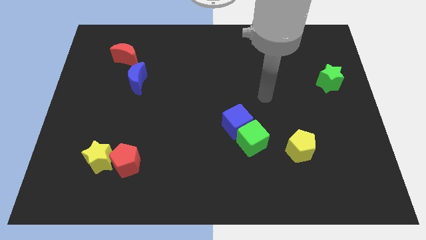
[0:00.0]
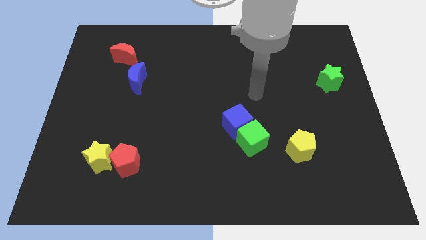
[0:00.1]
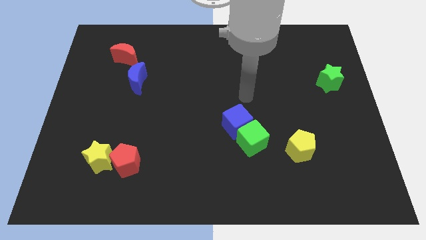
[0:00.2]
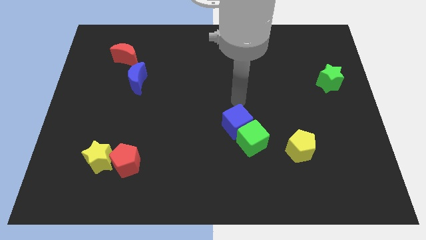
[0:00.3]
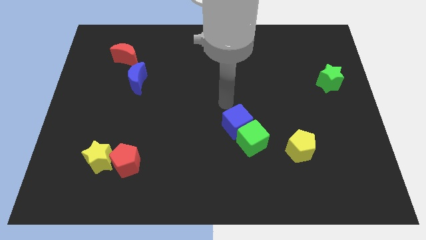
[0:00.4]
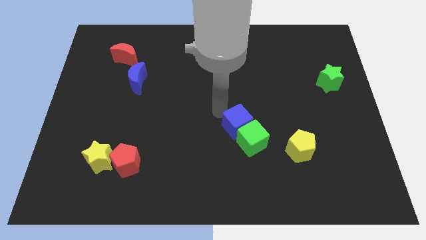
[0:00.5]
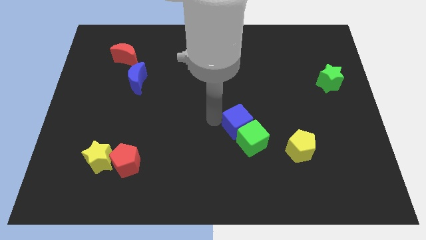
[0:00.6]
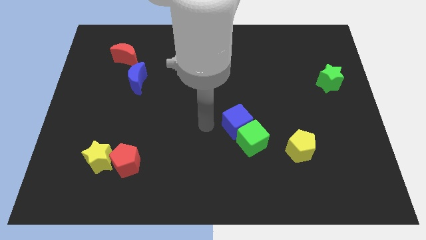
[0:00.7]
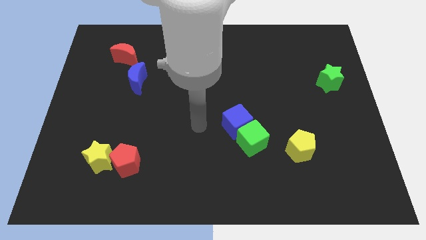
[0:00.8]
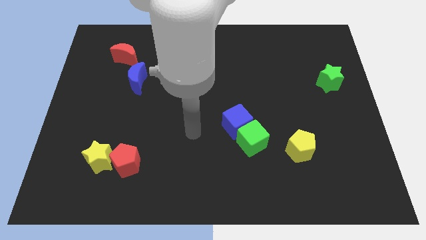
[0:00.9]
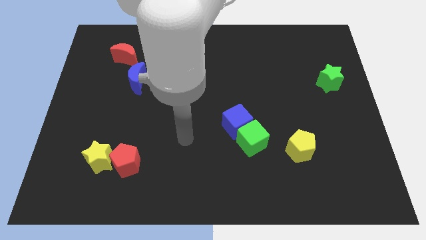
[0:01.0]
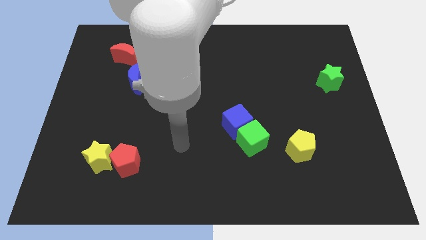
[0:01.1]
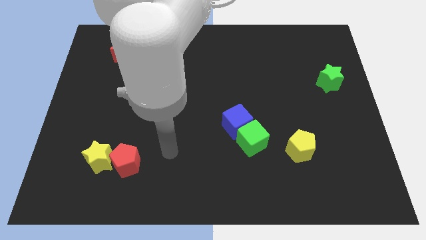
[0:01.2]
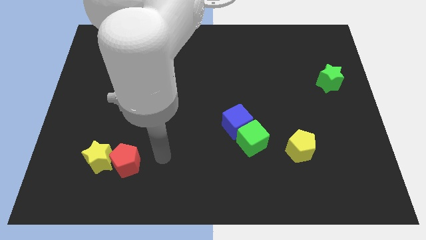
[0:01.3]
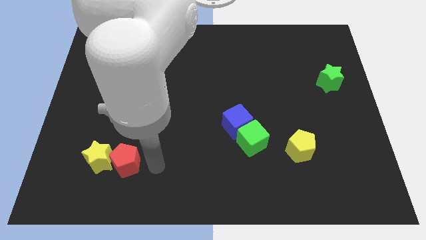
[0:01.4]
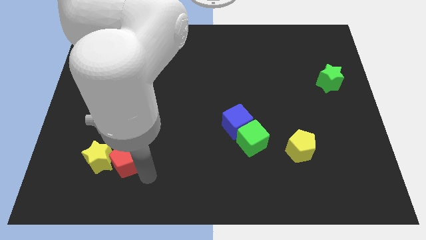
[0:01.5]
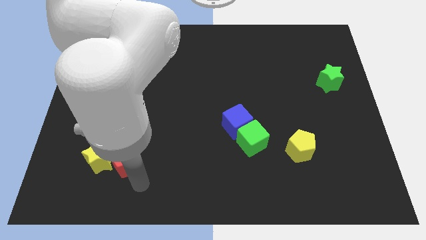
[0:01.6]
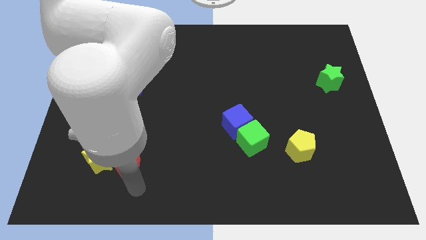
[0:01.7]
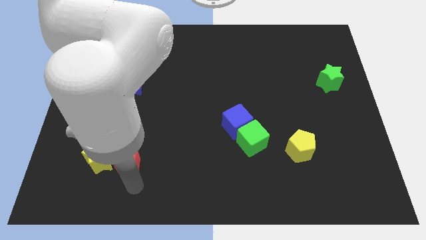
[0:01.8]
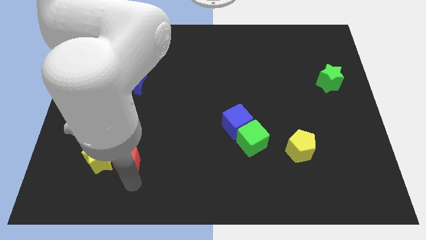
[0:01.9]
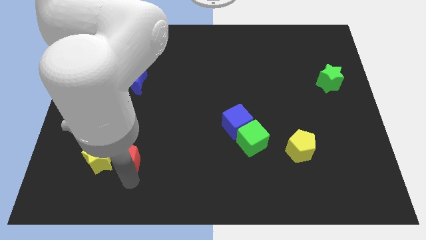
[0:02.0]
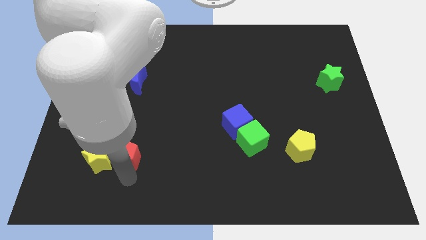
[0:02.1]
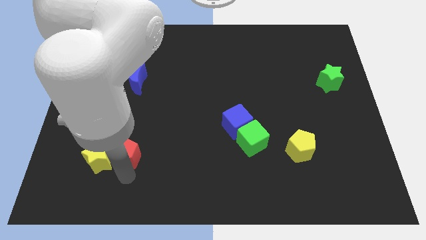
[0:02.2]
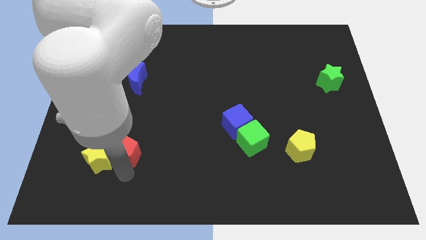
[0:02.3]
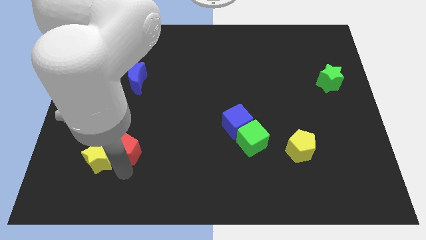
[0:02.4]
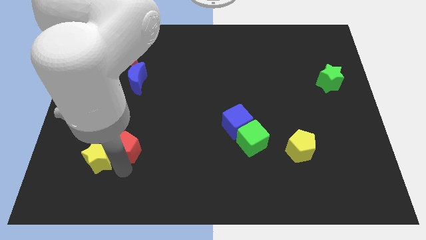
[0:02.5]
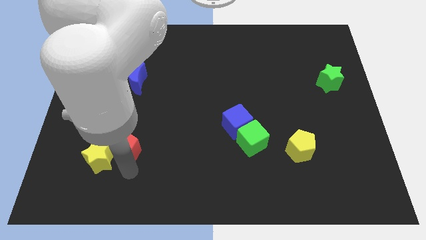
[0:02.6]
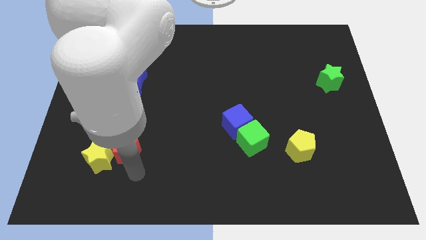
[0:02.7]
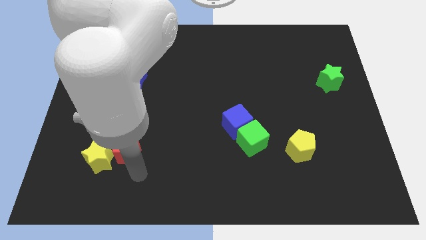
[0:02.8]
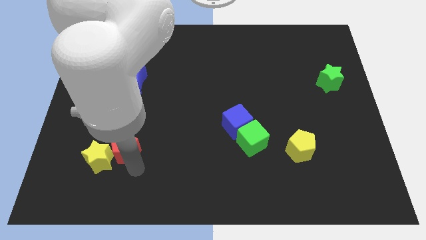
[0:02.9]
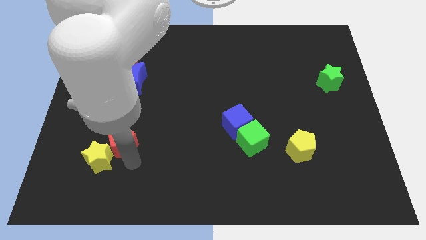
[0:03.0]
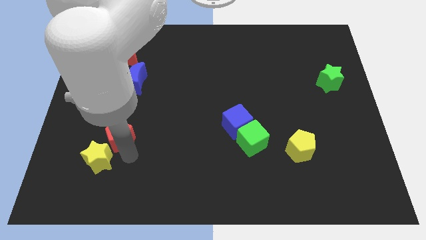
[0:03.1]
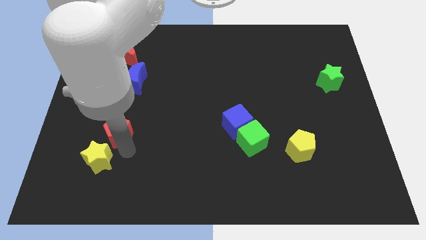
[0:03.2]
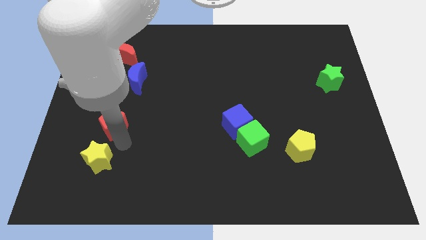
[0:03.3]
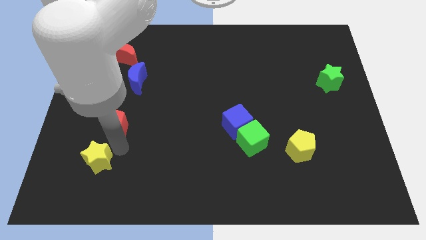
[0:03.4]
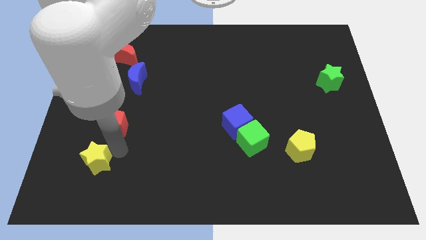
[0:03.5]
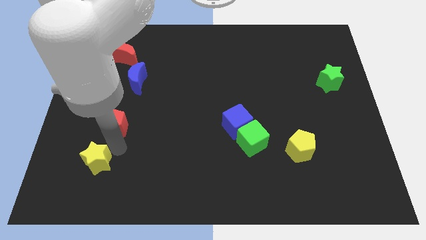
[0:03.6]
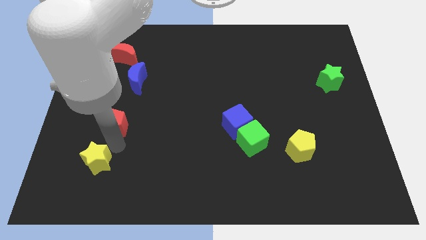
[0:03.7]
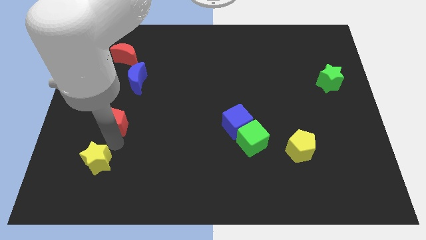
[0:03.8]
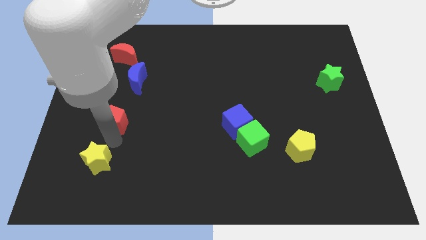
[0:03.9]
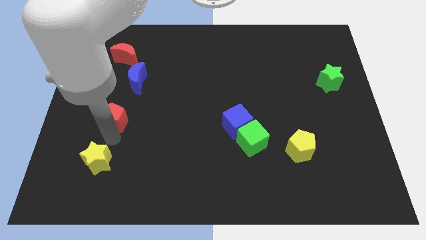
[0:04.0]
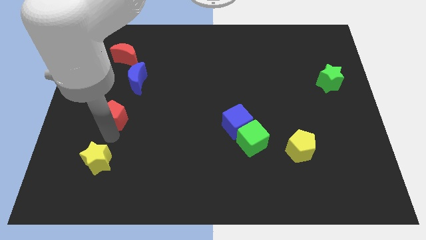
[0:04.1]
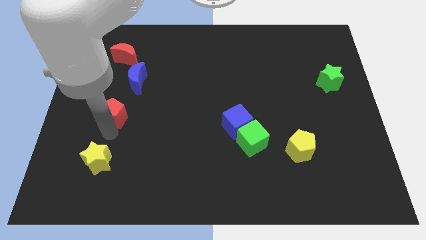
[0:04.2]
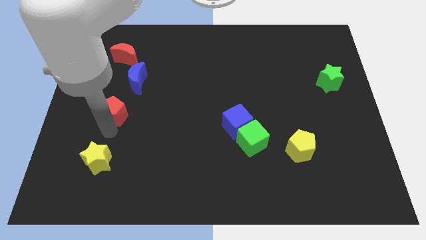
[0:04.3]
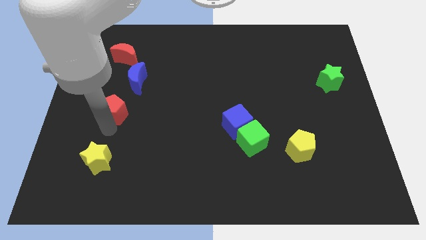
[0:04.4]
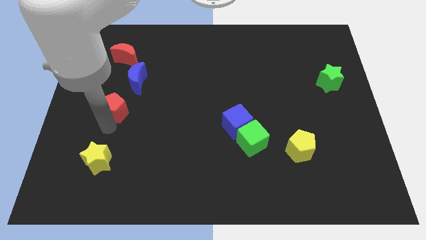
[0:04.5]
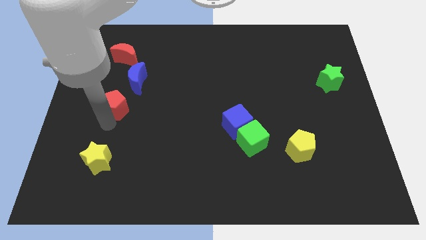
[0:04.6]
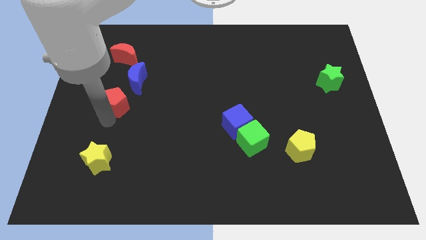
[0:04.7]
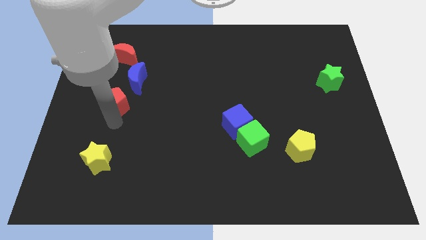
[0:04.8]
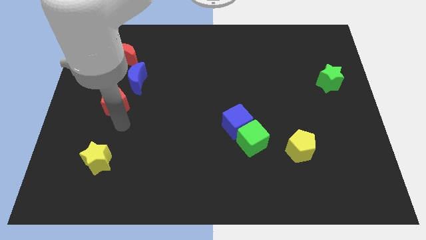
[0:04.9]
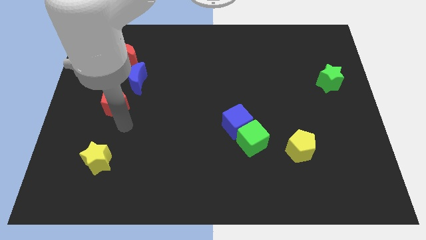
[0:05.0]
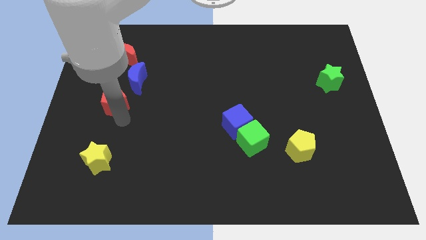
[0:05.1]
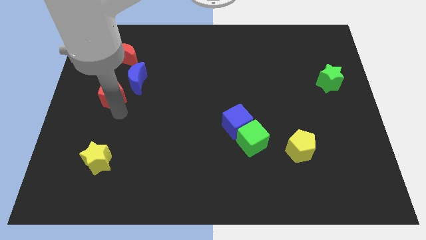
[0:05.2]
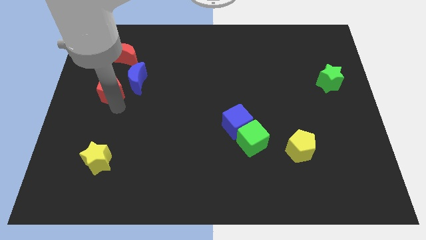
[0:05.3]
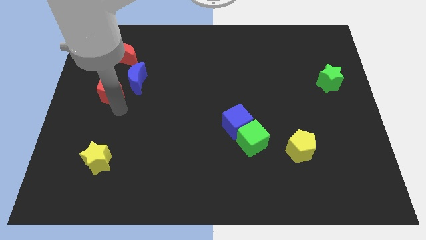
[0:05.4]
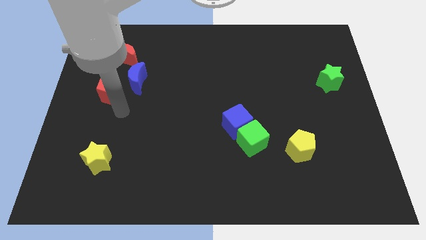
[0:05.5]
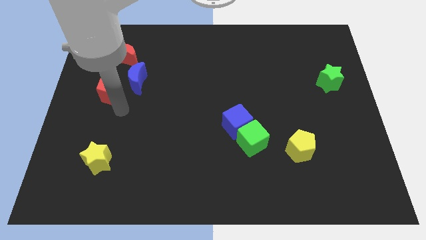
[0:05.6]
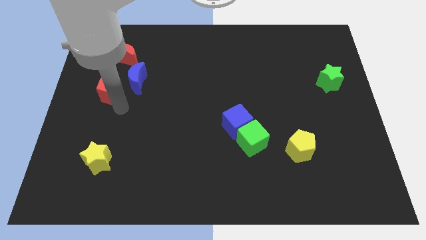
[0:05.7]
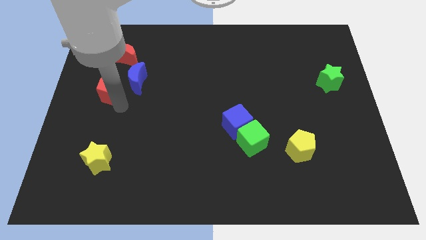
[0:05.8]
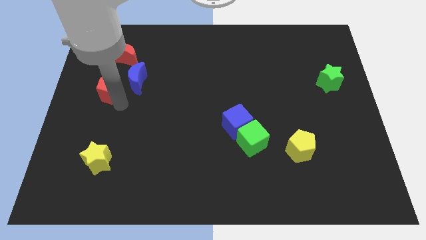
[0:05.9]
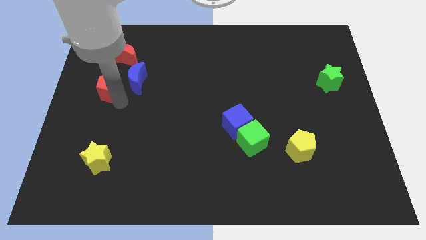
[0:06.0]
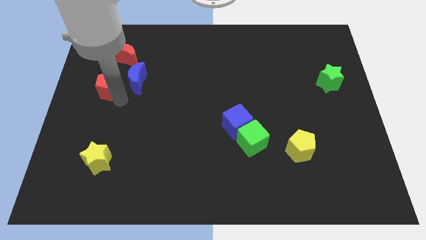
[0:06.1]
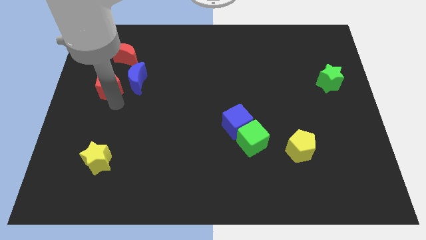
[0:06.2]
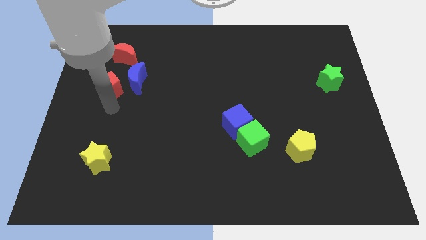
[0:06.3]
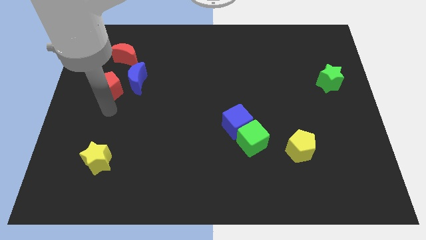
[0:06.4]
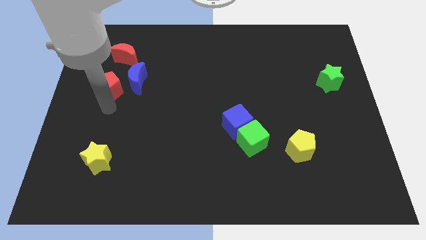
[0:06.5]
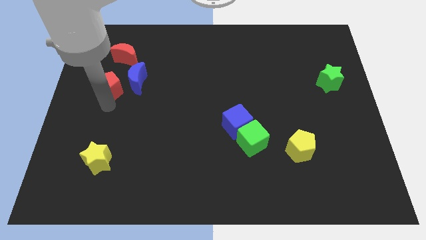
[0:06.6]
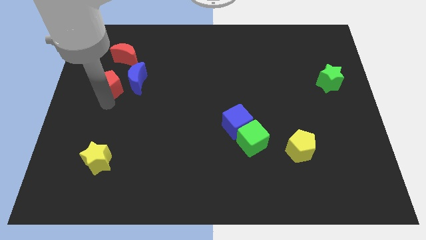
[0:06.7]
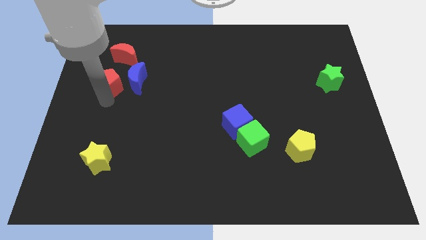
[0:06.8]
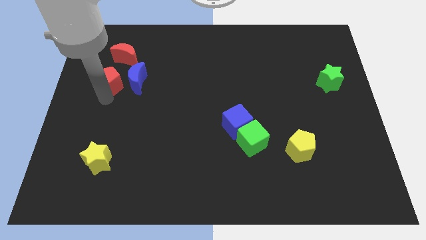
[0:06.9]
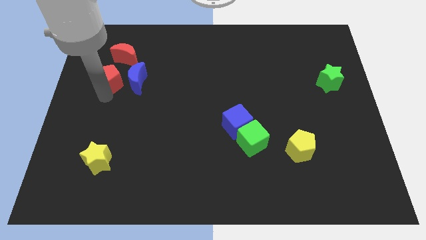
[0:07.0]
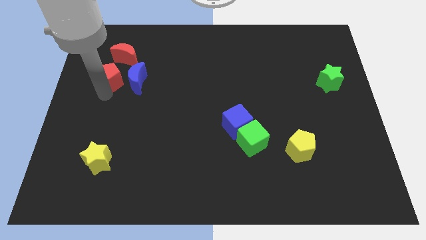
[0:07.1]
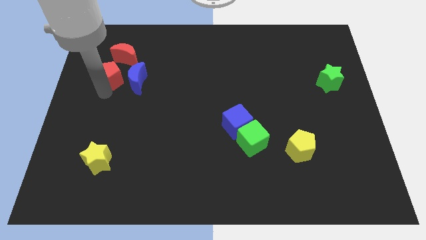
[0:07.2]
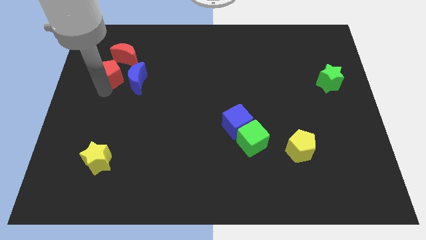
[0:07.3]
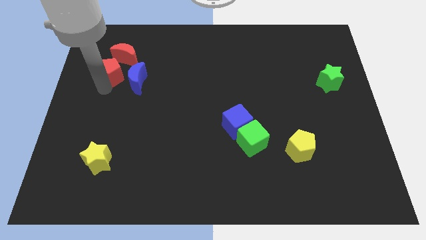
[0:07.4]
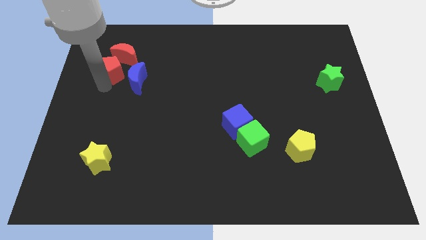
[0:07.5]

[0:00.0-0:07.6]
push the red pentagon towards the red moon

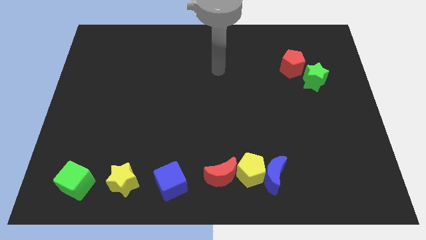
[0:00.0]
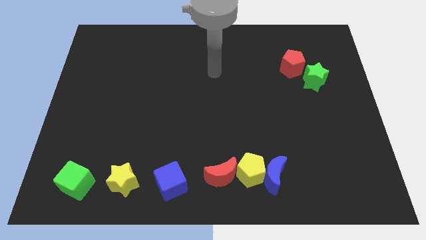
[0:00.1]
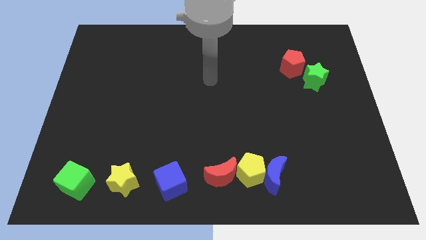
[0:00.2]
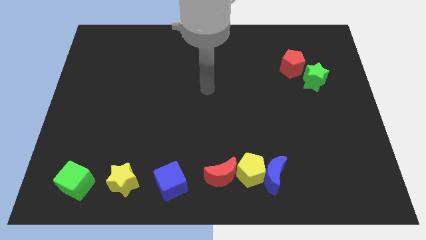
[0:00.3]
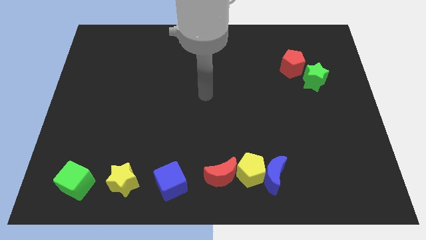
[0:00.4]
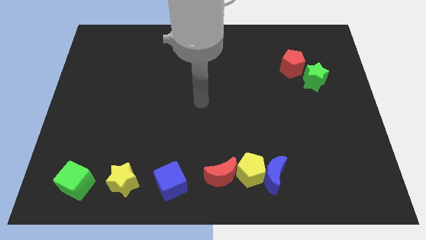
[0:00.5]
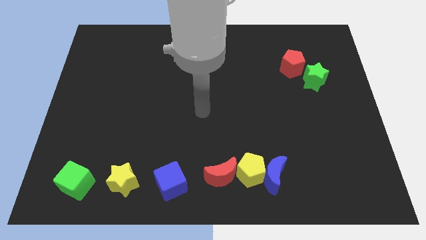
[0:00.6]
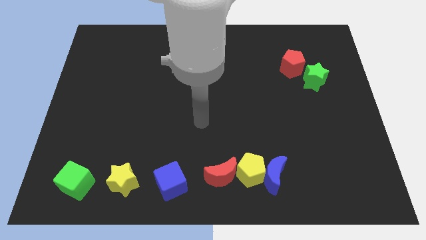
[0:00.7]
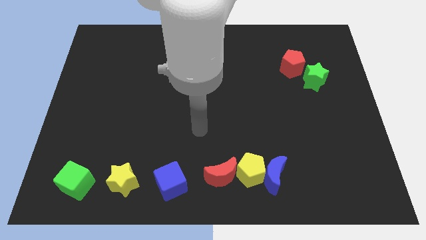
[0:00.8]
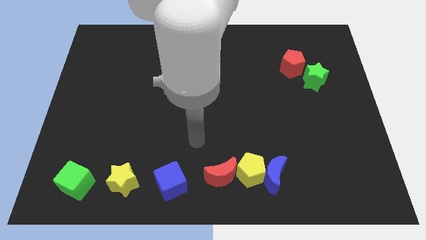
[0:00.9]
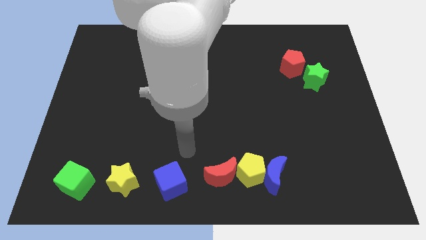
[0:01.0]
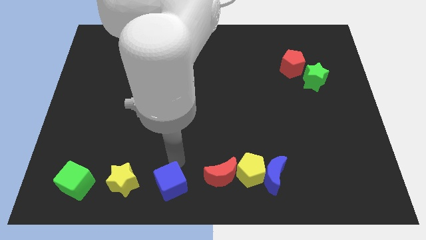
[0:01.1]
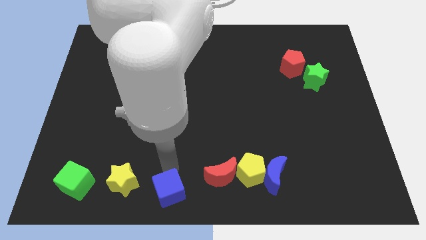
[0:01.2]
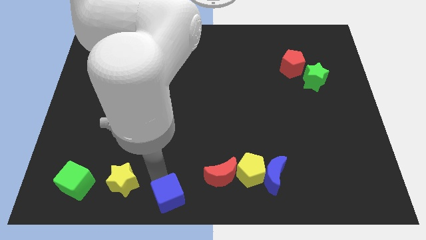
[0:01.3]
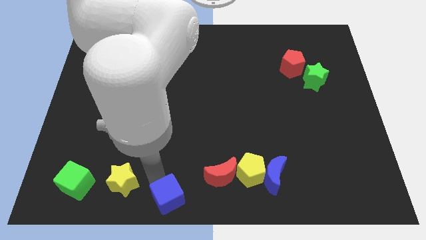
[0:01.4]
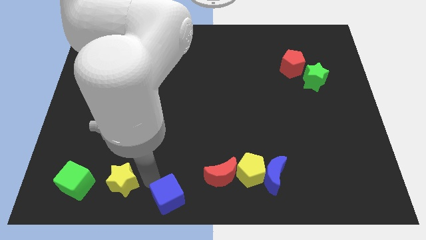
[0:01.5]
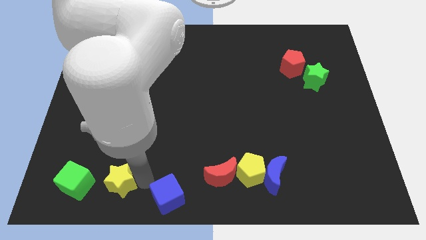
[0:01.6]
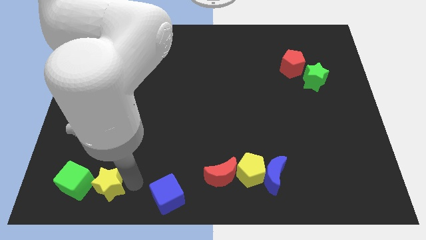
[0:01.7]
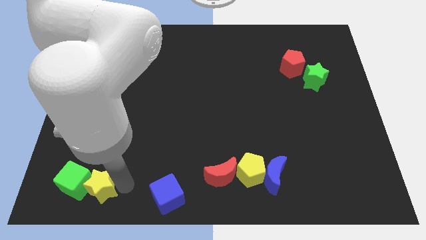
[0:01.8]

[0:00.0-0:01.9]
put the yellow star towards the green cube
